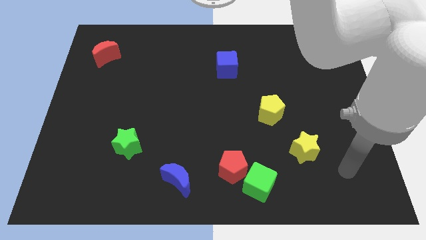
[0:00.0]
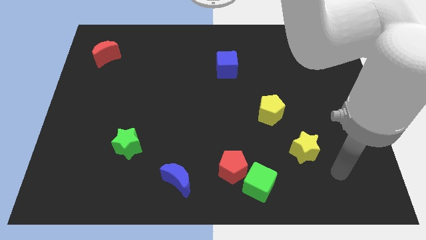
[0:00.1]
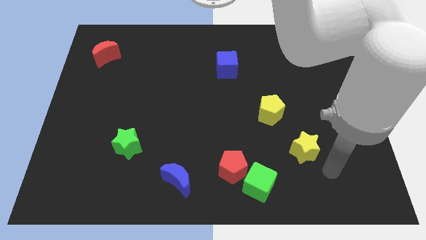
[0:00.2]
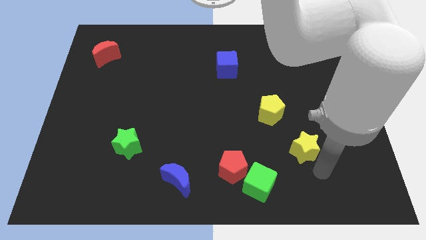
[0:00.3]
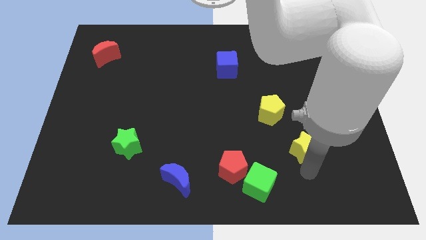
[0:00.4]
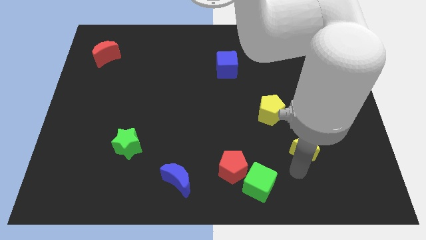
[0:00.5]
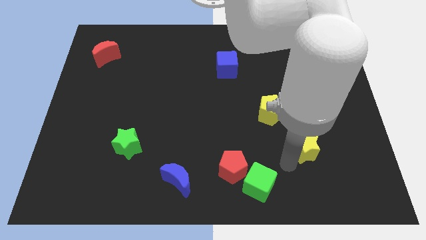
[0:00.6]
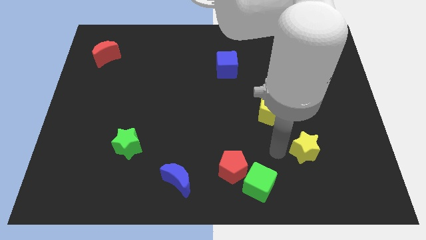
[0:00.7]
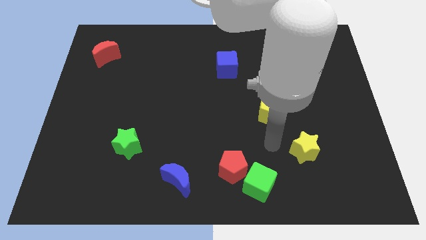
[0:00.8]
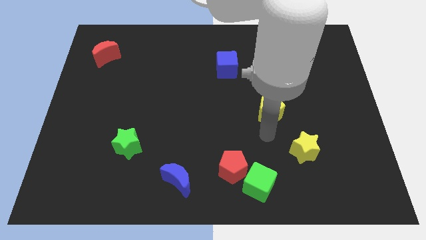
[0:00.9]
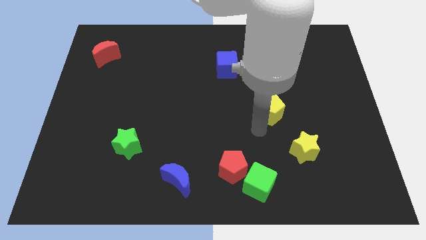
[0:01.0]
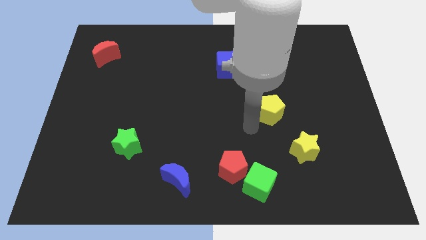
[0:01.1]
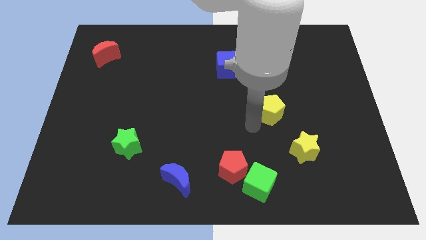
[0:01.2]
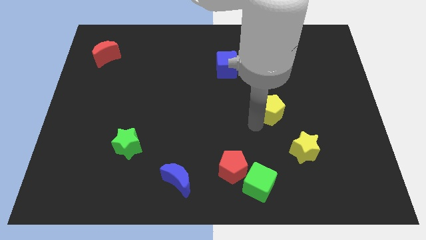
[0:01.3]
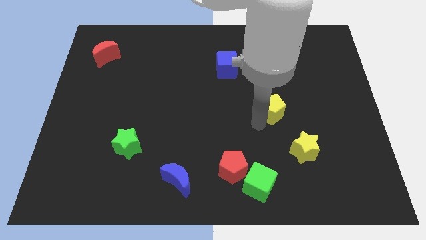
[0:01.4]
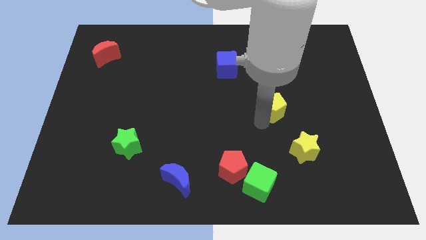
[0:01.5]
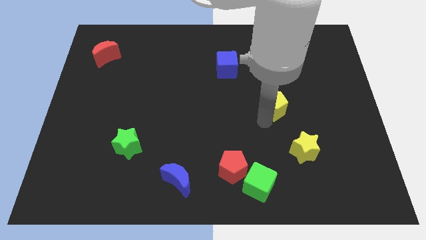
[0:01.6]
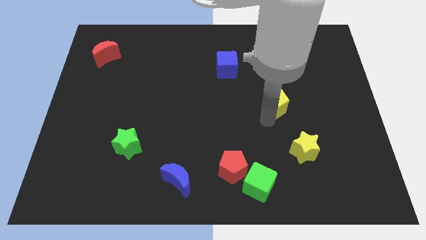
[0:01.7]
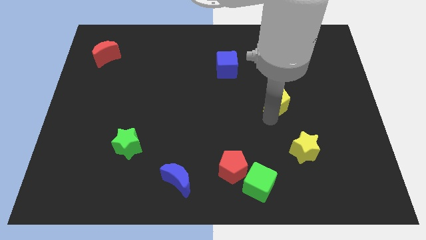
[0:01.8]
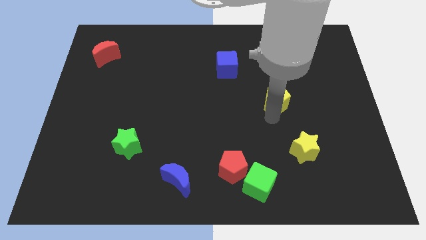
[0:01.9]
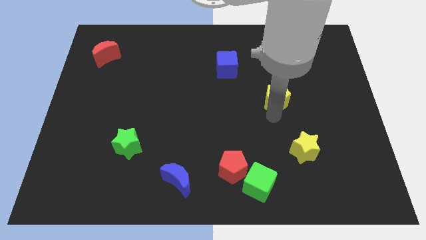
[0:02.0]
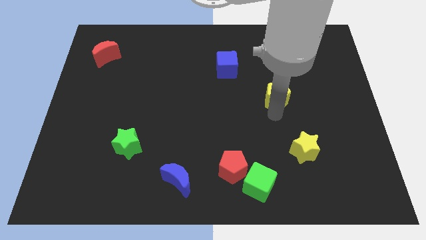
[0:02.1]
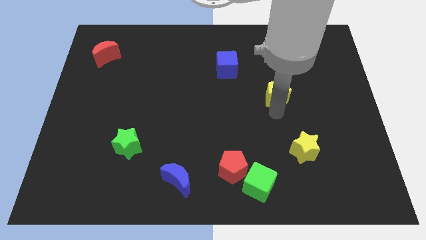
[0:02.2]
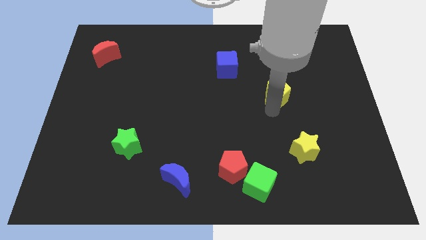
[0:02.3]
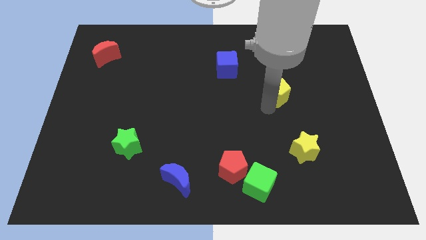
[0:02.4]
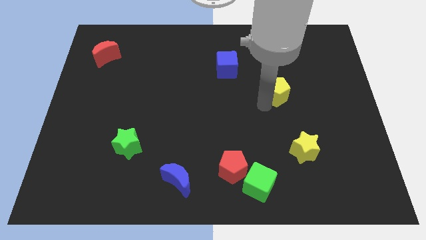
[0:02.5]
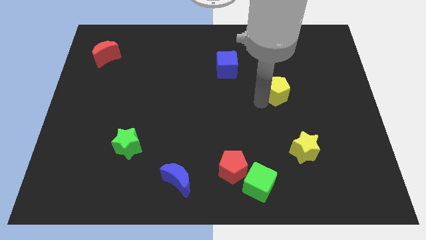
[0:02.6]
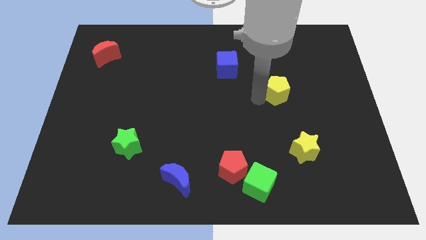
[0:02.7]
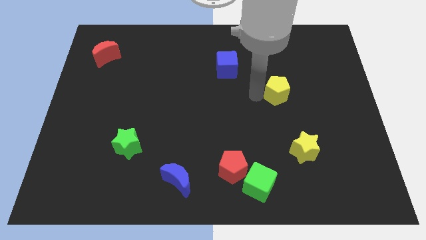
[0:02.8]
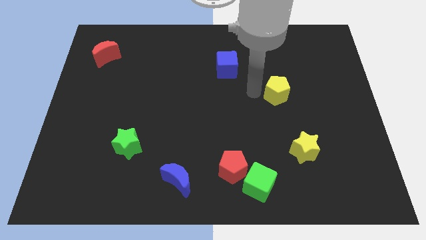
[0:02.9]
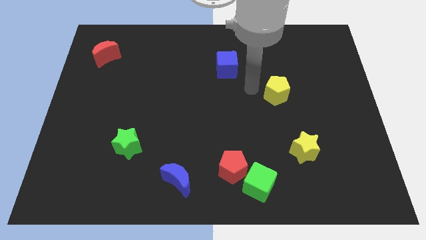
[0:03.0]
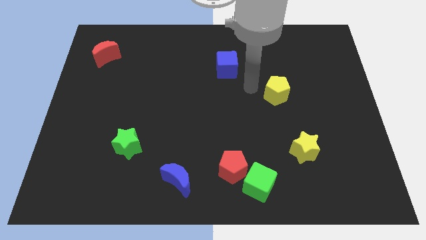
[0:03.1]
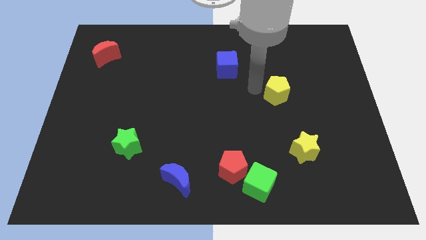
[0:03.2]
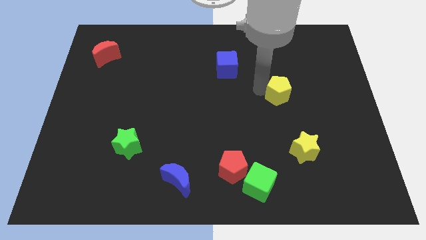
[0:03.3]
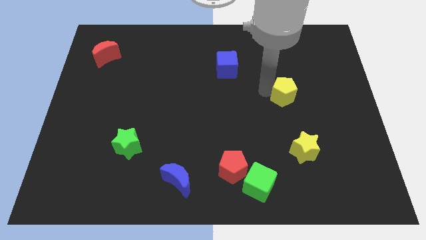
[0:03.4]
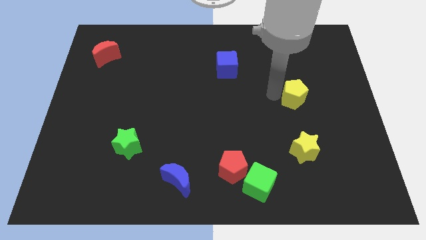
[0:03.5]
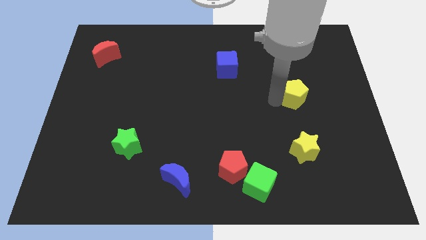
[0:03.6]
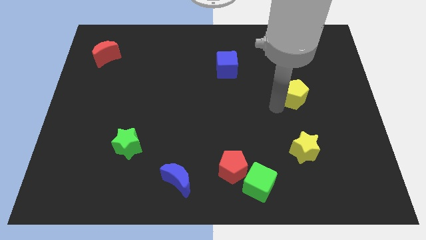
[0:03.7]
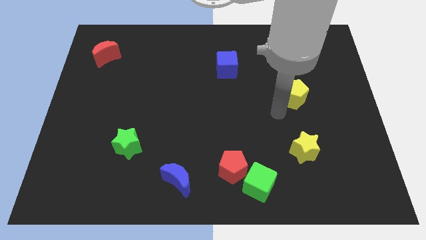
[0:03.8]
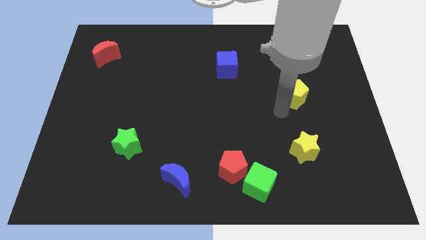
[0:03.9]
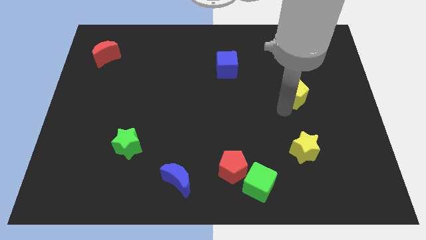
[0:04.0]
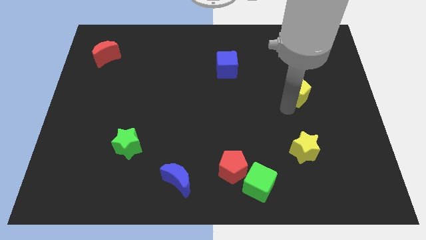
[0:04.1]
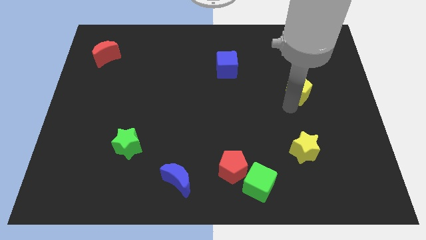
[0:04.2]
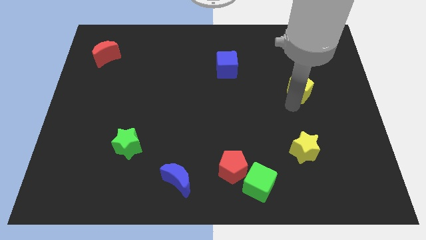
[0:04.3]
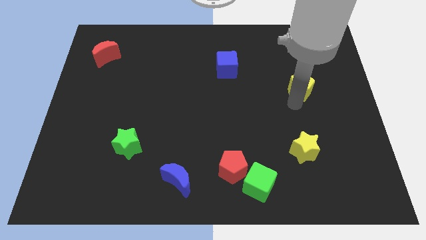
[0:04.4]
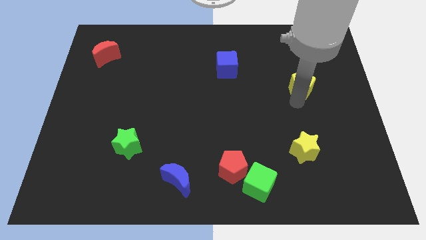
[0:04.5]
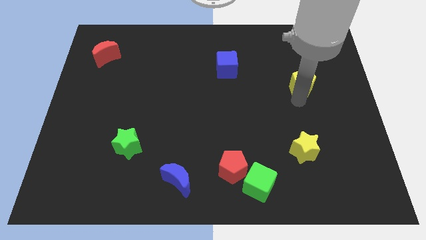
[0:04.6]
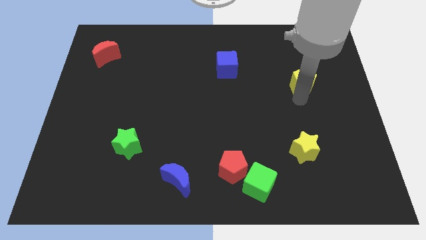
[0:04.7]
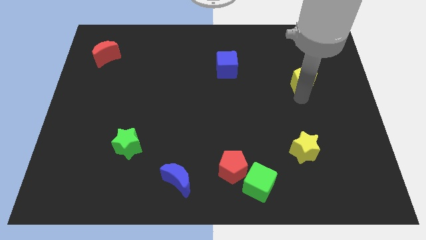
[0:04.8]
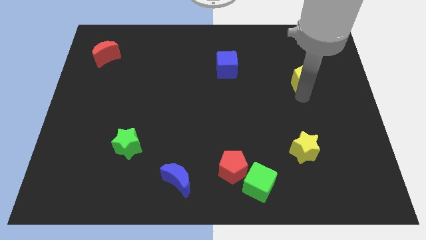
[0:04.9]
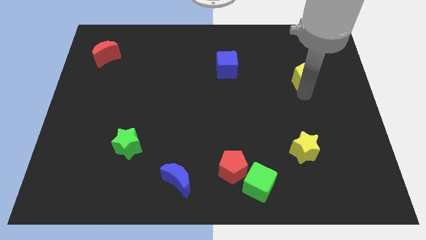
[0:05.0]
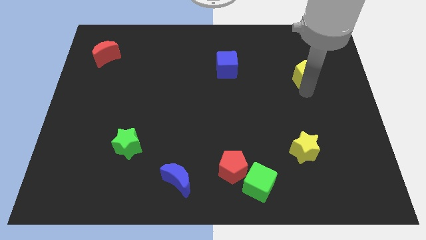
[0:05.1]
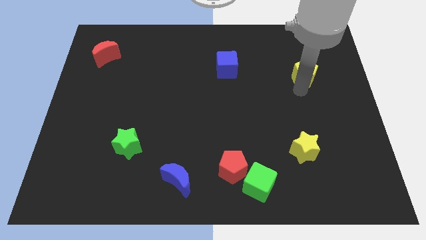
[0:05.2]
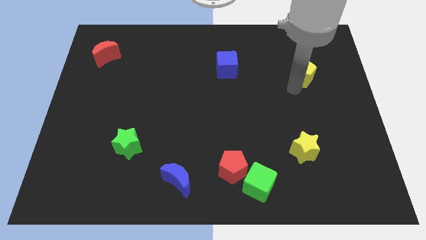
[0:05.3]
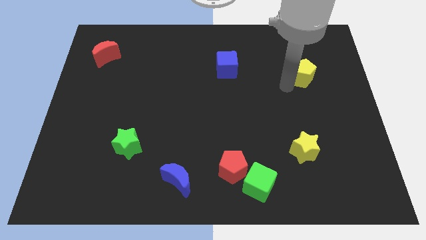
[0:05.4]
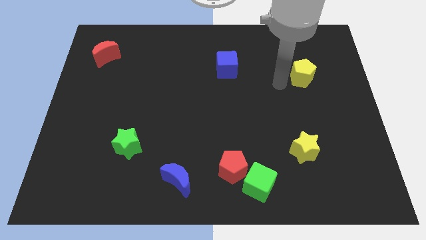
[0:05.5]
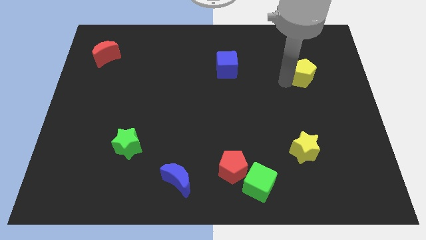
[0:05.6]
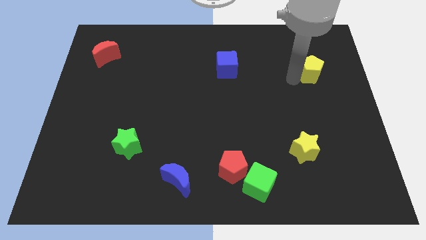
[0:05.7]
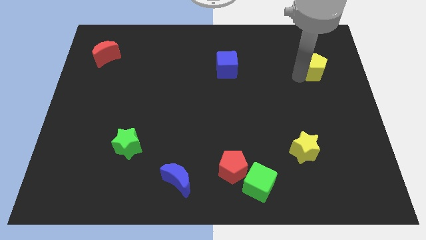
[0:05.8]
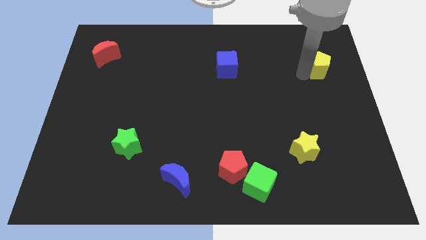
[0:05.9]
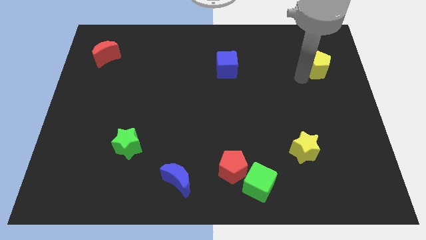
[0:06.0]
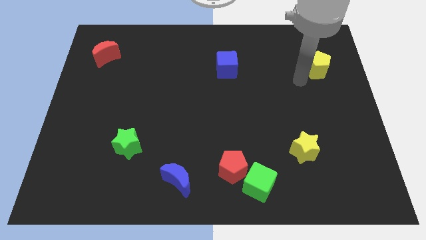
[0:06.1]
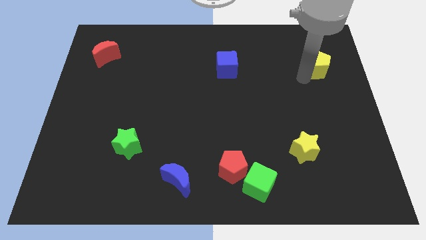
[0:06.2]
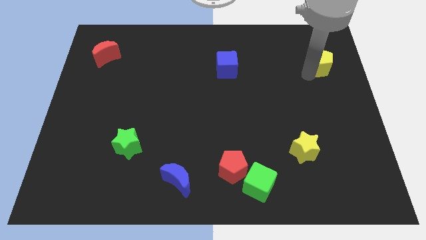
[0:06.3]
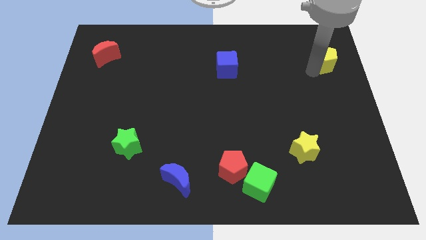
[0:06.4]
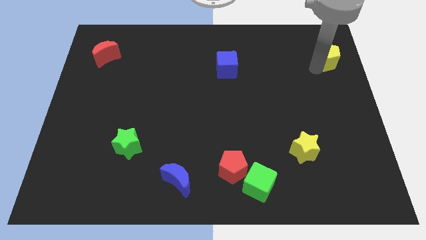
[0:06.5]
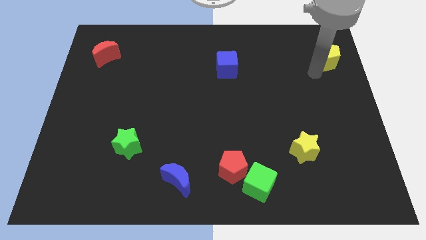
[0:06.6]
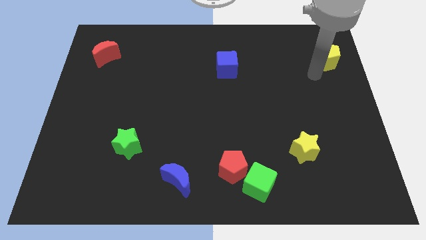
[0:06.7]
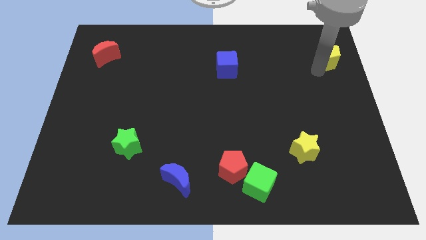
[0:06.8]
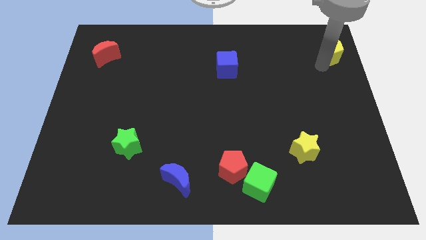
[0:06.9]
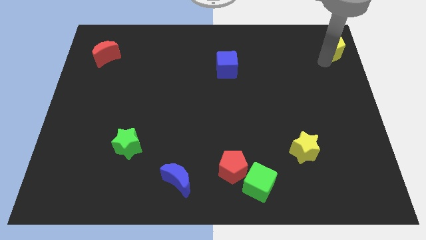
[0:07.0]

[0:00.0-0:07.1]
push the yellow pentagon to the upper right corner
